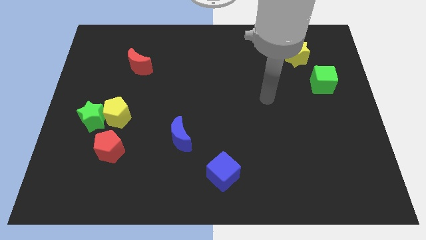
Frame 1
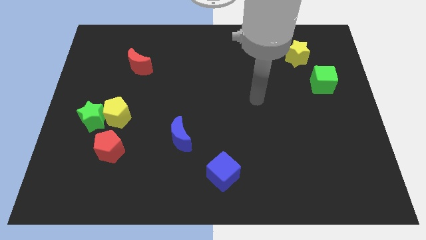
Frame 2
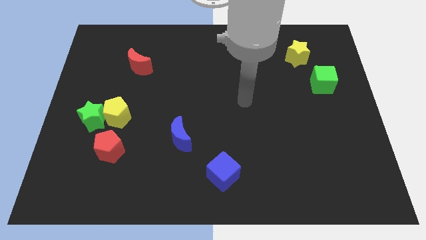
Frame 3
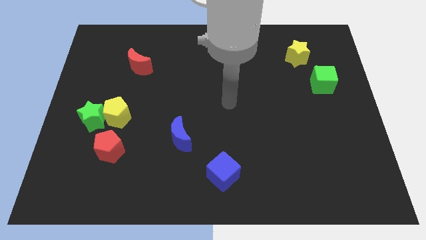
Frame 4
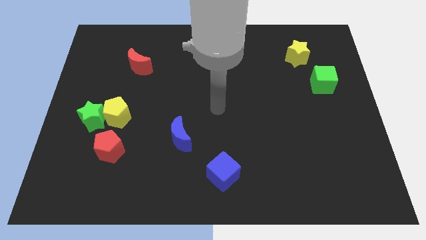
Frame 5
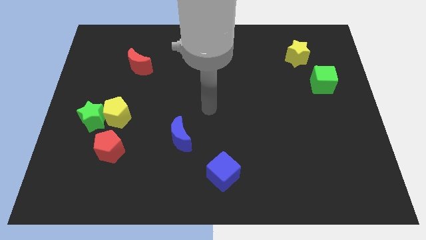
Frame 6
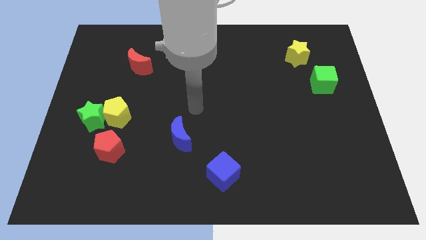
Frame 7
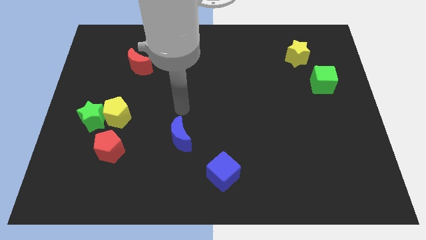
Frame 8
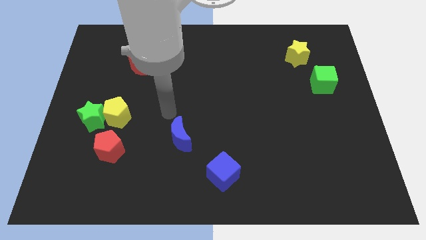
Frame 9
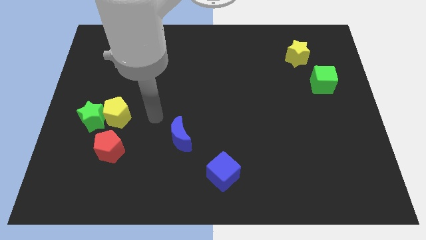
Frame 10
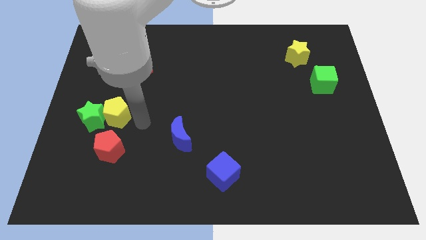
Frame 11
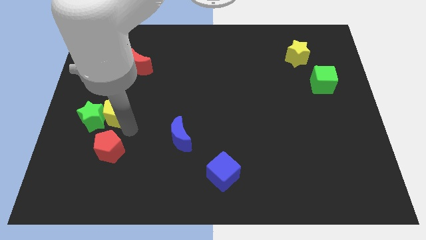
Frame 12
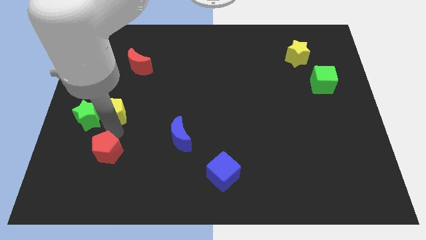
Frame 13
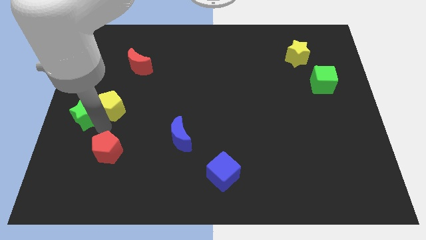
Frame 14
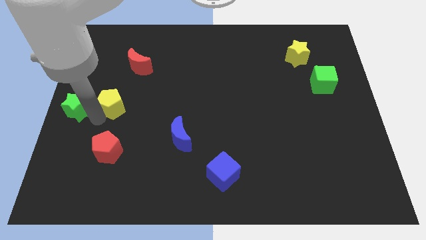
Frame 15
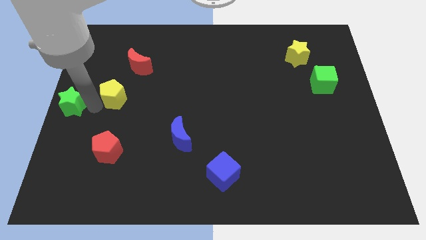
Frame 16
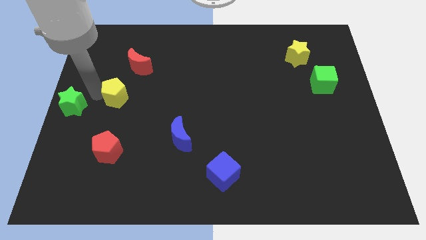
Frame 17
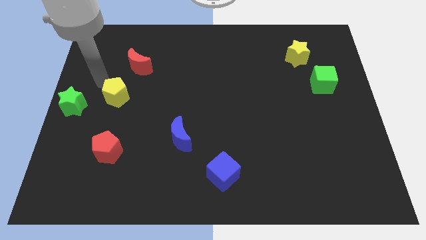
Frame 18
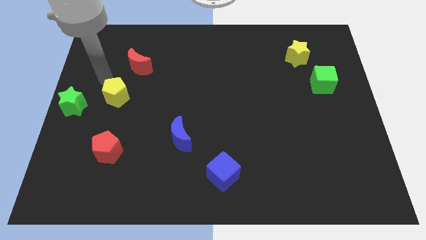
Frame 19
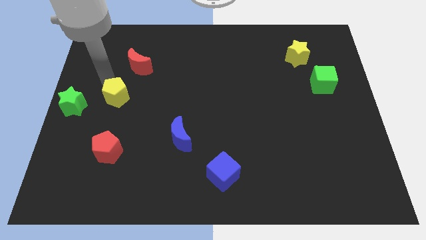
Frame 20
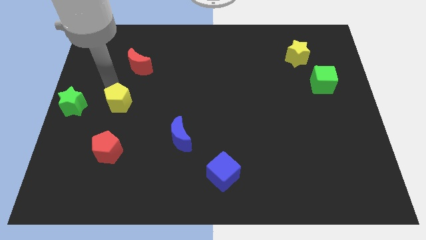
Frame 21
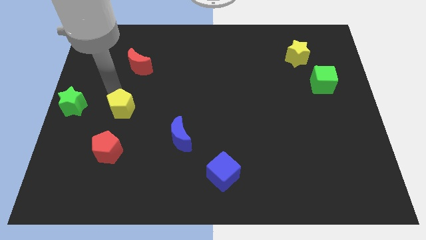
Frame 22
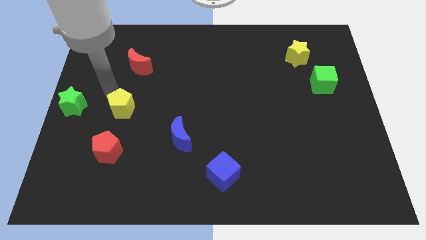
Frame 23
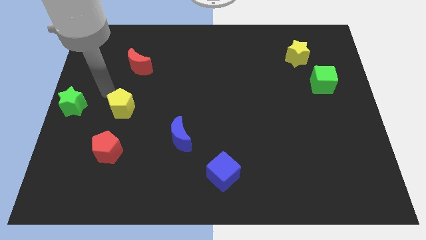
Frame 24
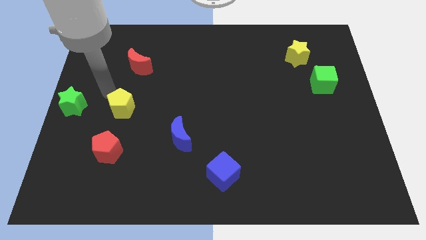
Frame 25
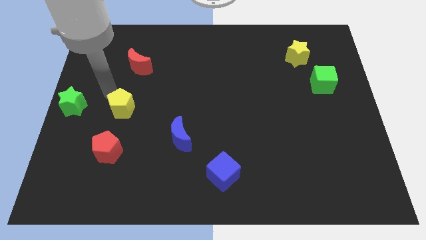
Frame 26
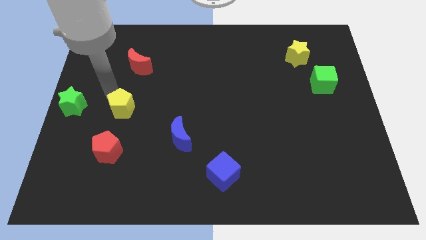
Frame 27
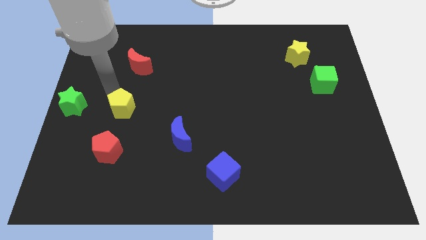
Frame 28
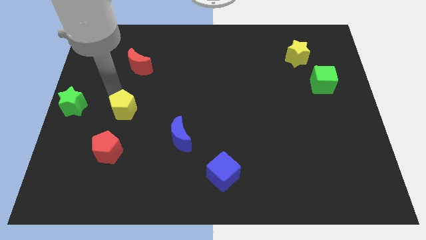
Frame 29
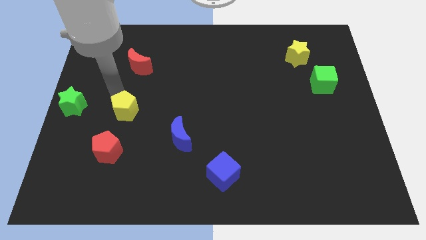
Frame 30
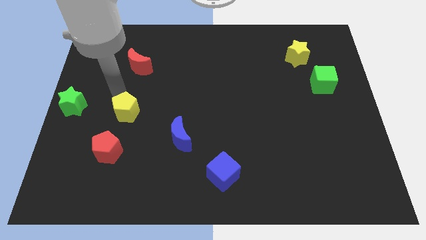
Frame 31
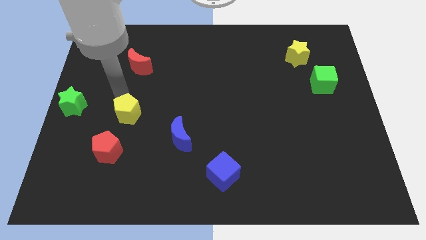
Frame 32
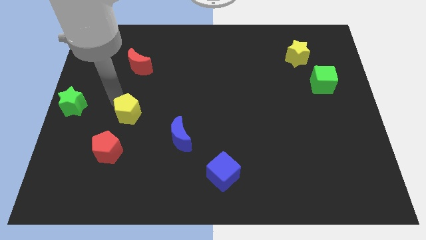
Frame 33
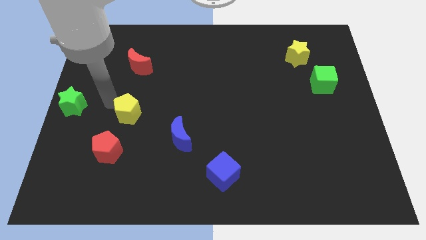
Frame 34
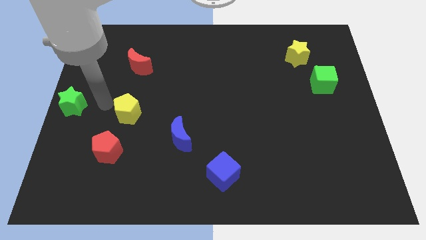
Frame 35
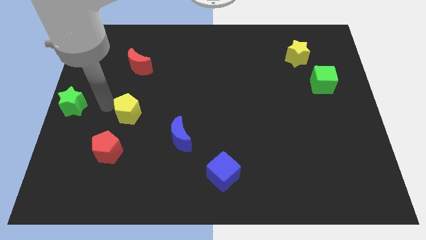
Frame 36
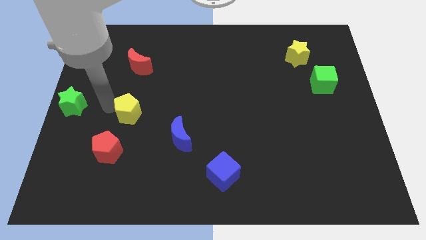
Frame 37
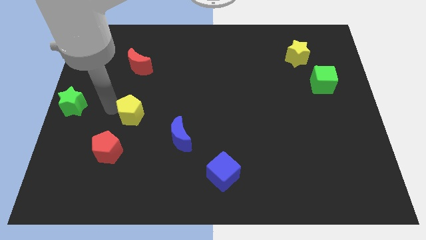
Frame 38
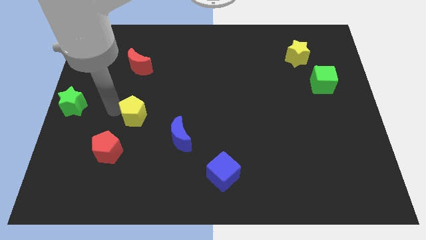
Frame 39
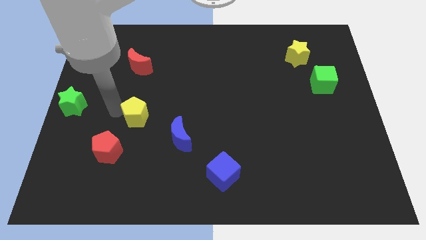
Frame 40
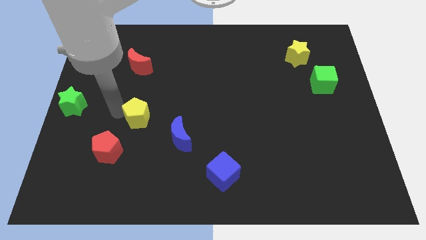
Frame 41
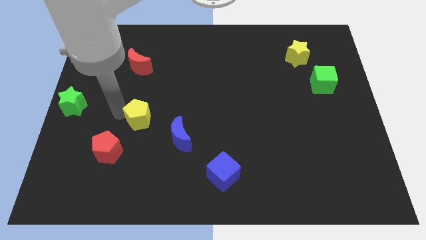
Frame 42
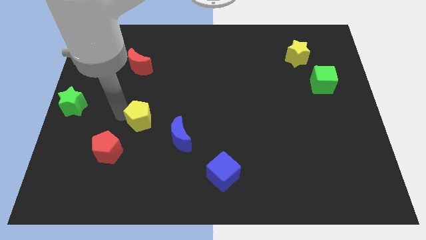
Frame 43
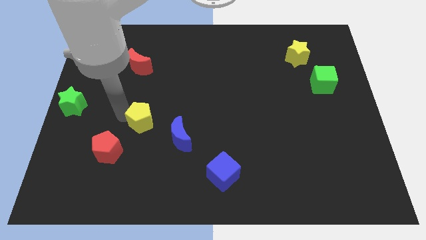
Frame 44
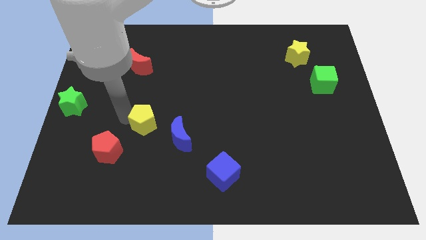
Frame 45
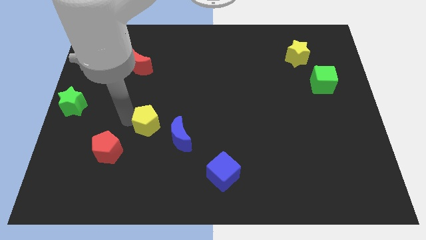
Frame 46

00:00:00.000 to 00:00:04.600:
slightly push the yellow pentagon to the right

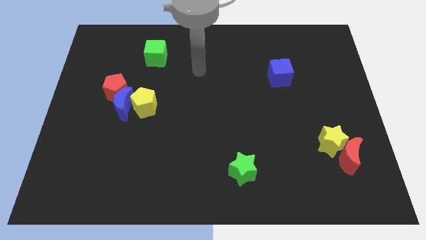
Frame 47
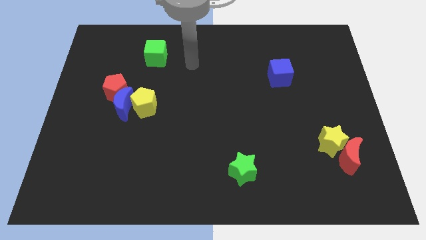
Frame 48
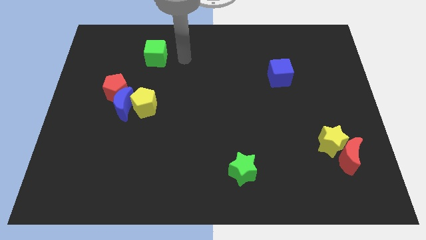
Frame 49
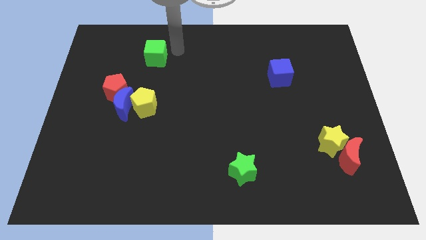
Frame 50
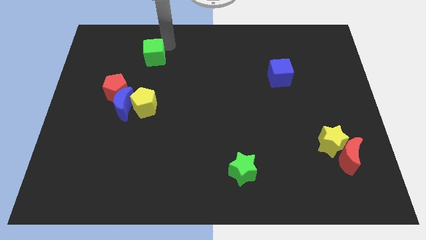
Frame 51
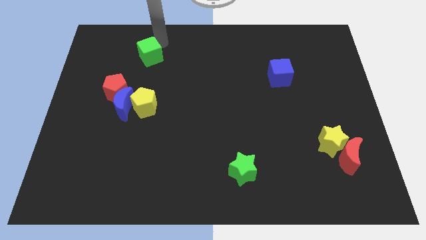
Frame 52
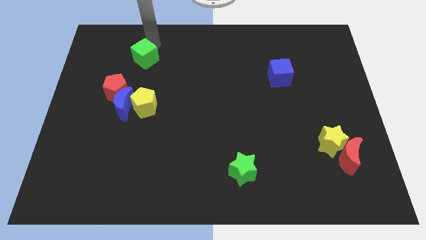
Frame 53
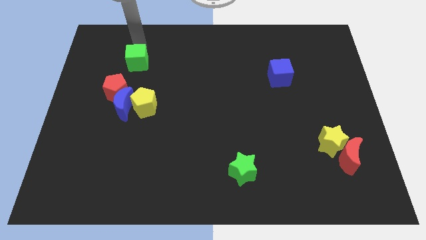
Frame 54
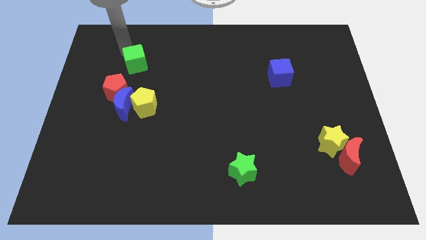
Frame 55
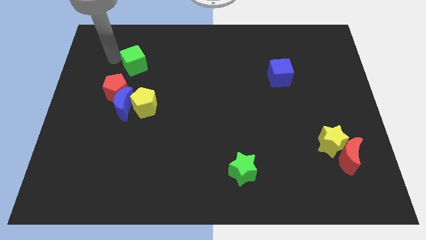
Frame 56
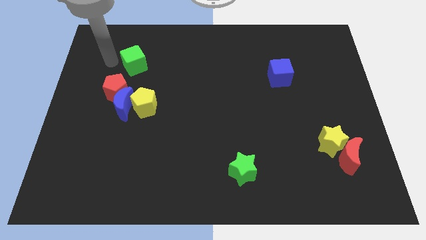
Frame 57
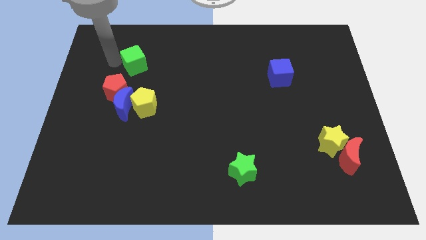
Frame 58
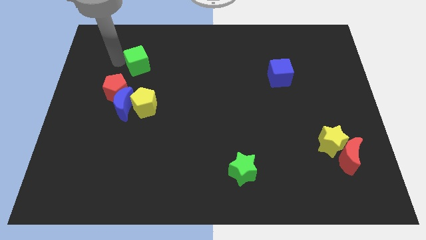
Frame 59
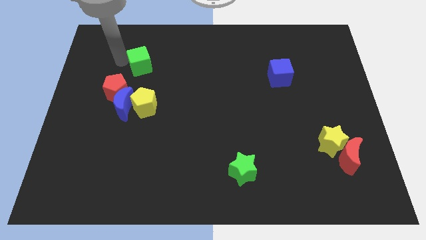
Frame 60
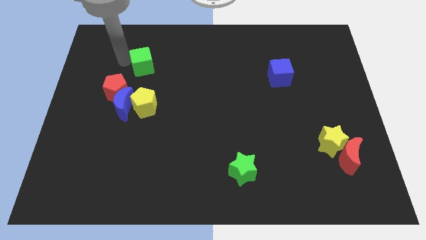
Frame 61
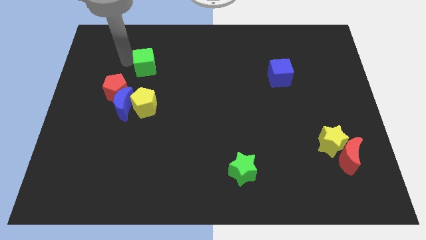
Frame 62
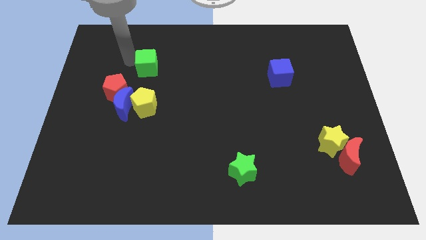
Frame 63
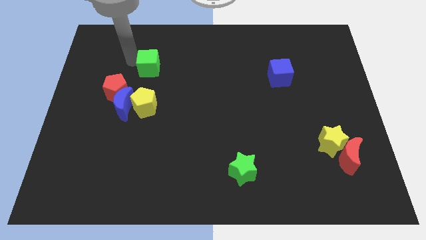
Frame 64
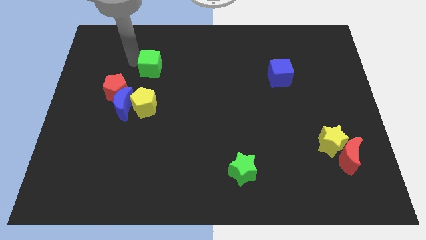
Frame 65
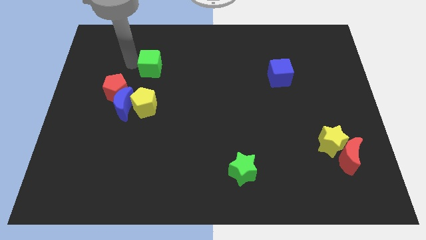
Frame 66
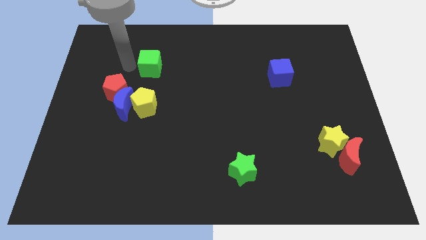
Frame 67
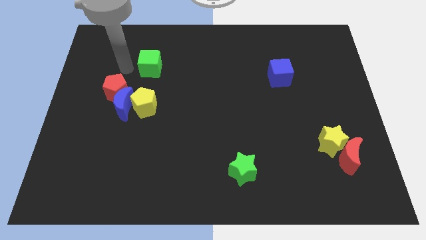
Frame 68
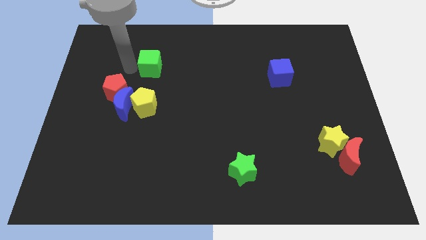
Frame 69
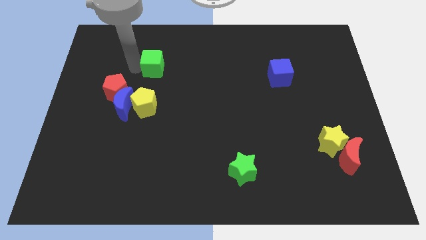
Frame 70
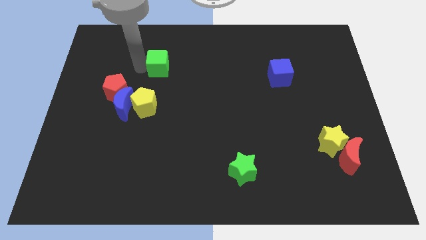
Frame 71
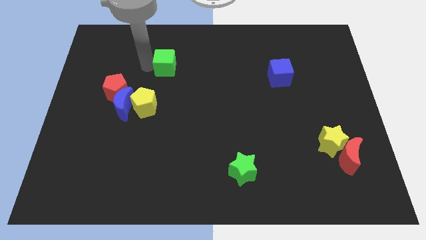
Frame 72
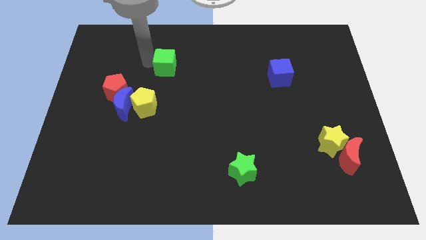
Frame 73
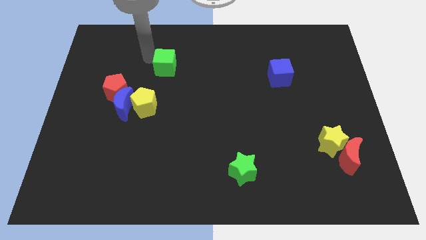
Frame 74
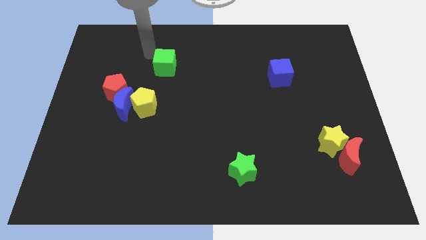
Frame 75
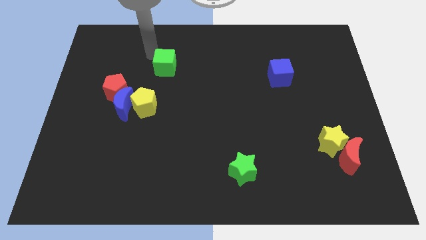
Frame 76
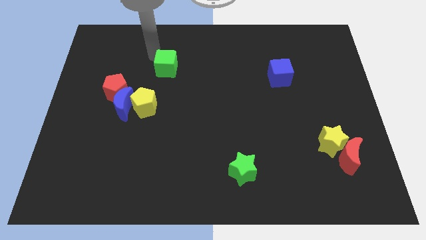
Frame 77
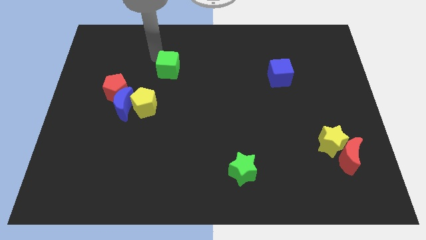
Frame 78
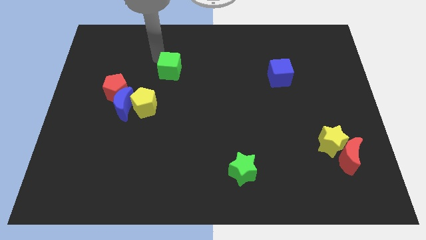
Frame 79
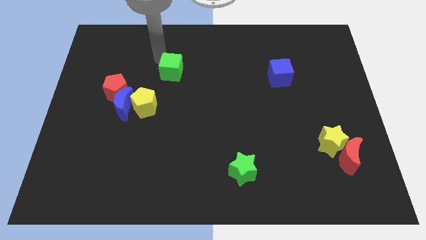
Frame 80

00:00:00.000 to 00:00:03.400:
move the green cube down and right diagonally a little bit

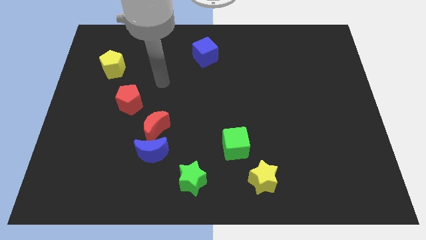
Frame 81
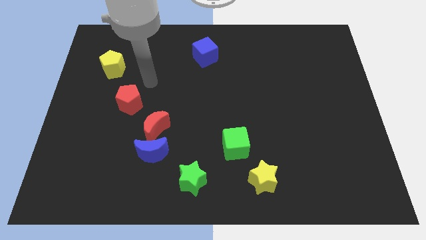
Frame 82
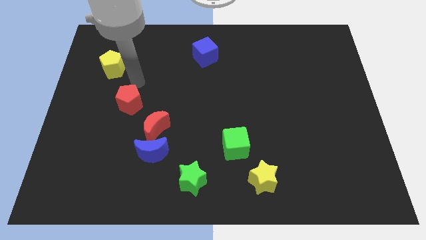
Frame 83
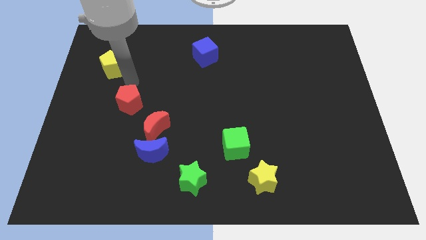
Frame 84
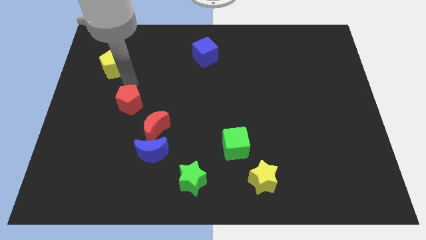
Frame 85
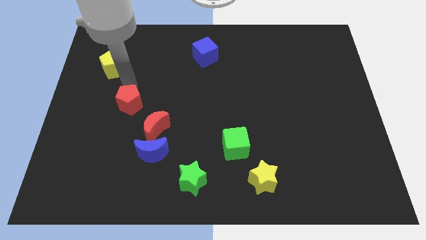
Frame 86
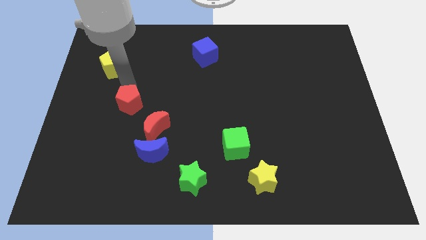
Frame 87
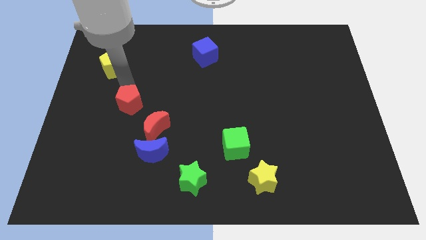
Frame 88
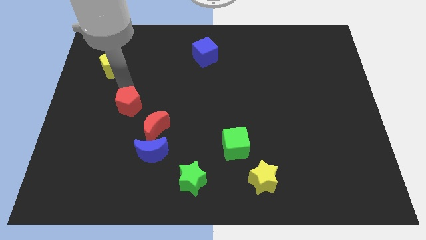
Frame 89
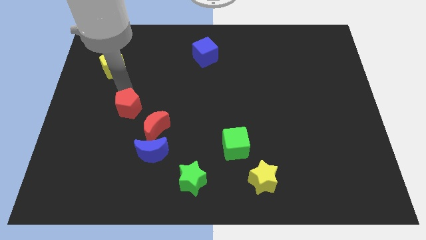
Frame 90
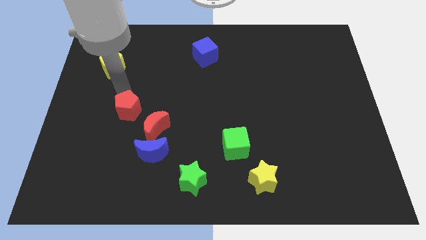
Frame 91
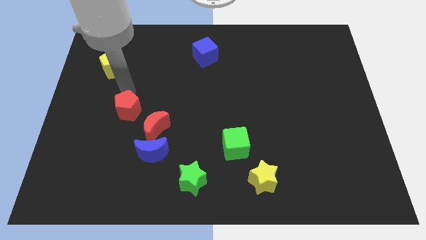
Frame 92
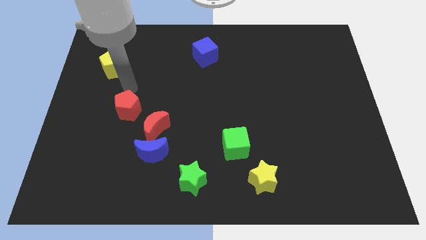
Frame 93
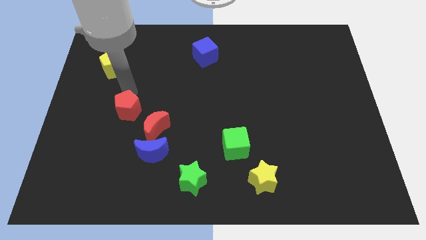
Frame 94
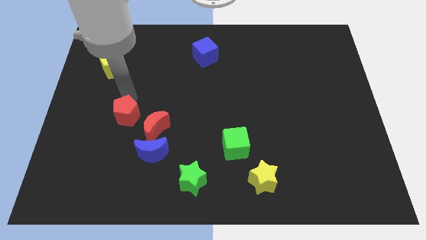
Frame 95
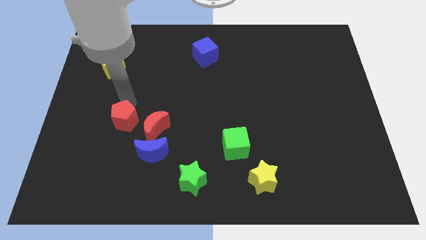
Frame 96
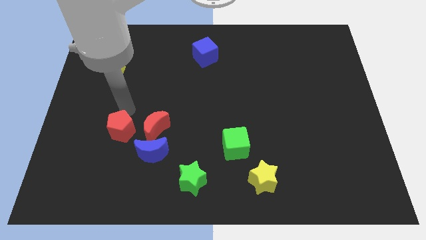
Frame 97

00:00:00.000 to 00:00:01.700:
move the red pentagon downwards a little bit
